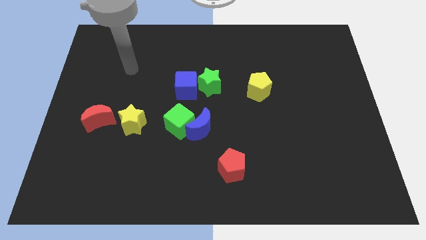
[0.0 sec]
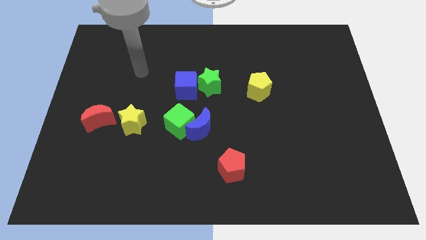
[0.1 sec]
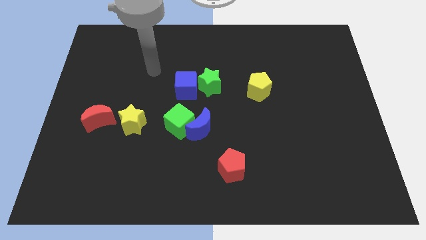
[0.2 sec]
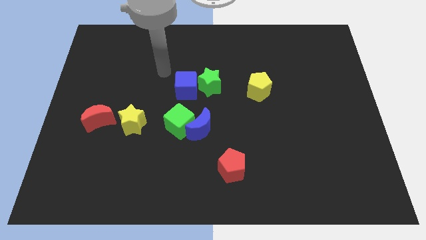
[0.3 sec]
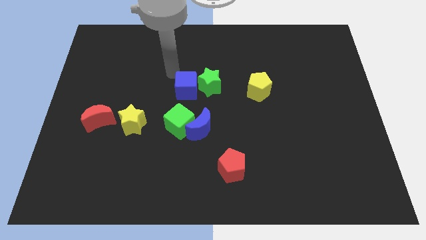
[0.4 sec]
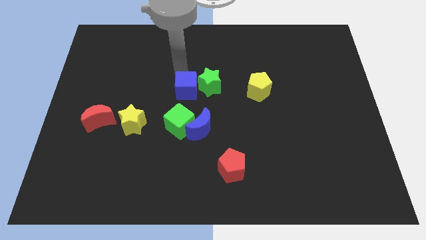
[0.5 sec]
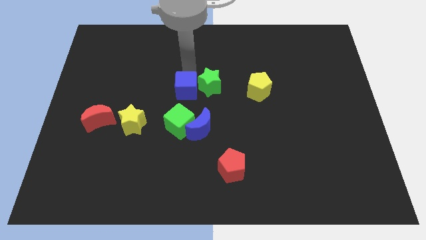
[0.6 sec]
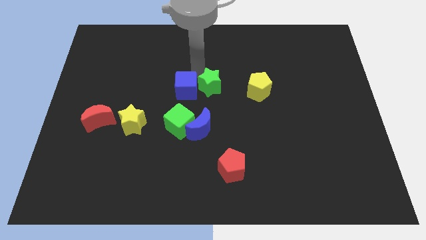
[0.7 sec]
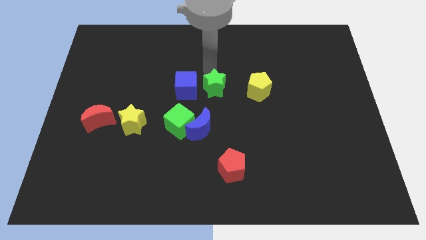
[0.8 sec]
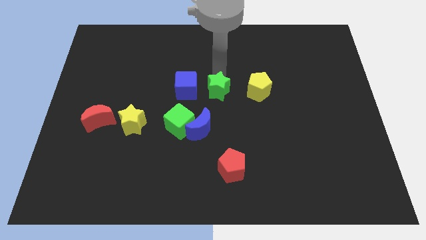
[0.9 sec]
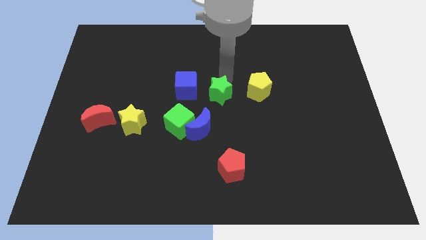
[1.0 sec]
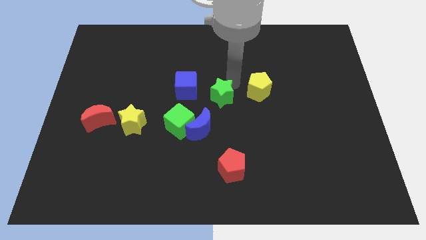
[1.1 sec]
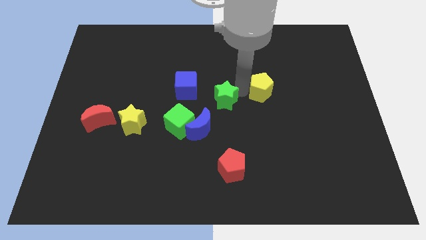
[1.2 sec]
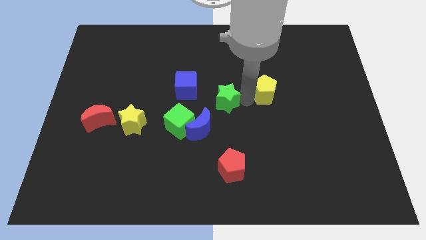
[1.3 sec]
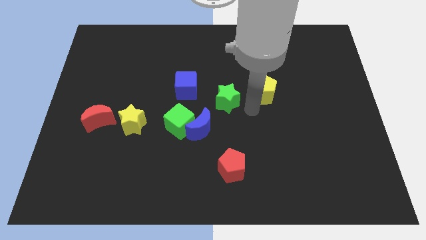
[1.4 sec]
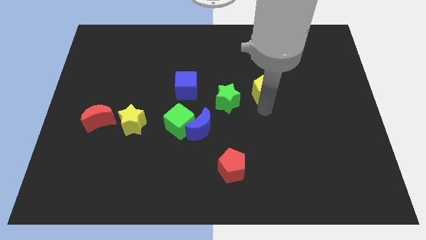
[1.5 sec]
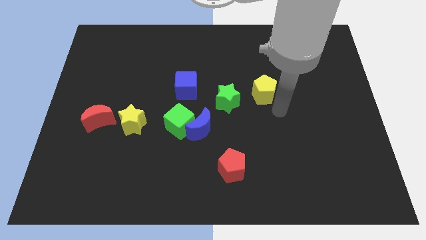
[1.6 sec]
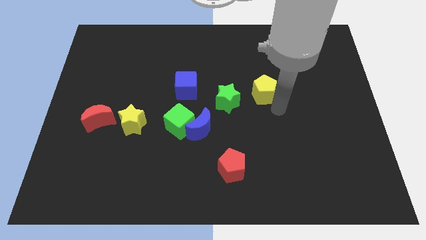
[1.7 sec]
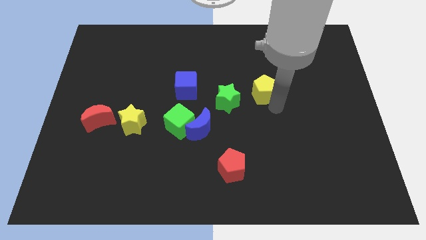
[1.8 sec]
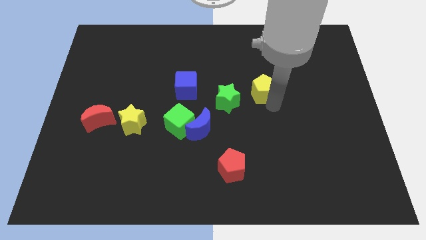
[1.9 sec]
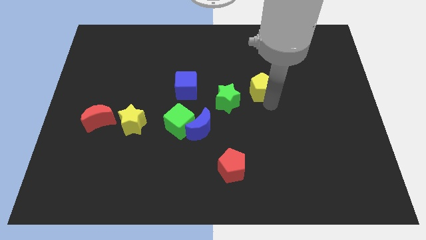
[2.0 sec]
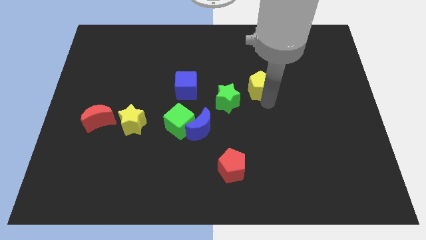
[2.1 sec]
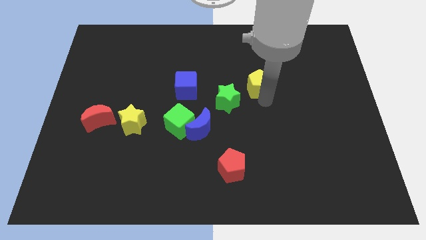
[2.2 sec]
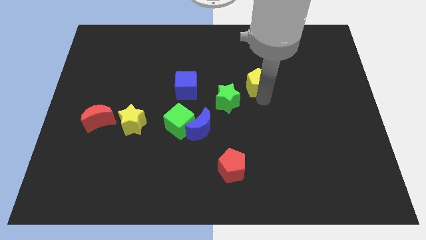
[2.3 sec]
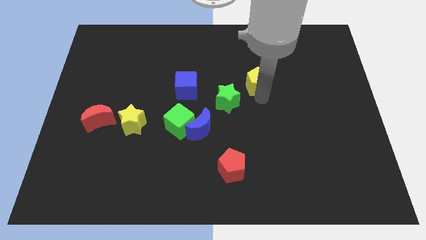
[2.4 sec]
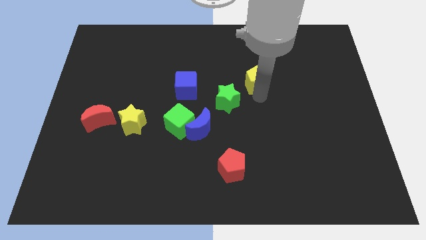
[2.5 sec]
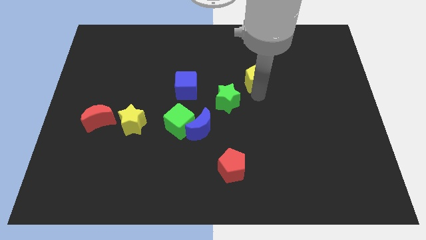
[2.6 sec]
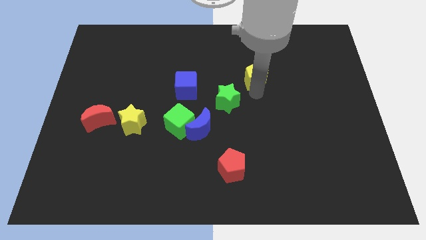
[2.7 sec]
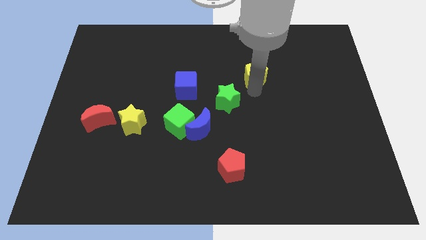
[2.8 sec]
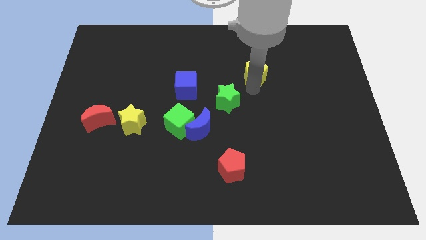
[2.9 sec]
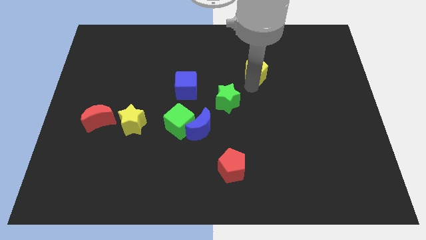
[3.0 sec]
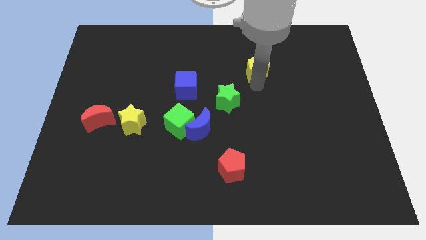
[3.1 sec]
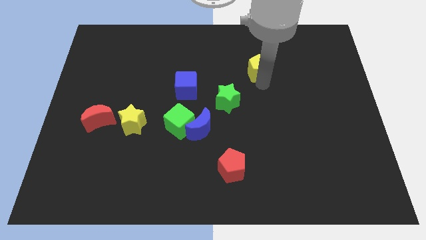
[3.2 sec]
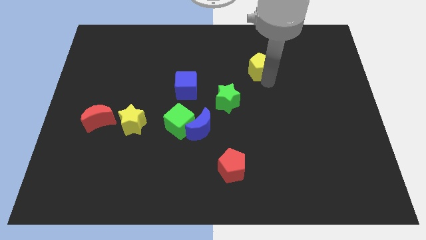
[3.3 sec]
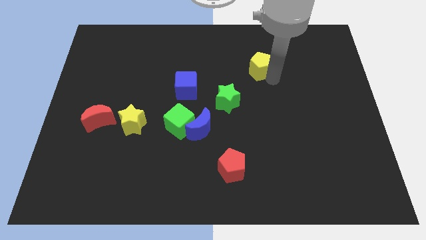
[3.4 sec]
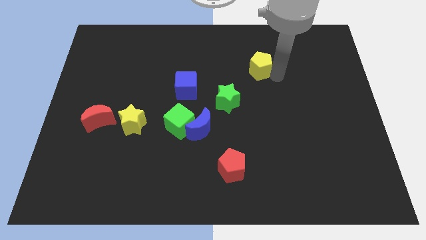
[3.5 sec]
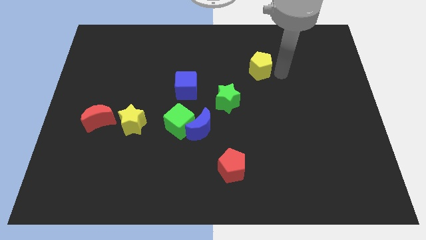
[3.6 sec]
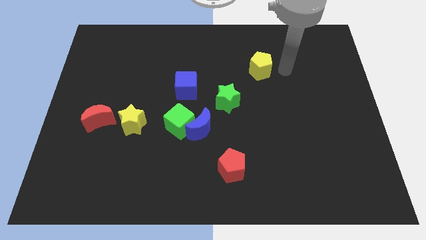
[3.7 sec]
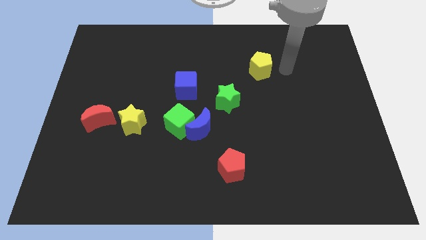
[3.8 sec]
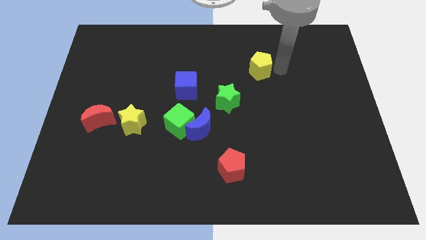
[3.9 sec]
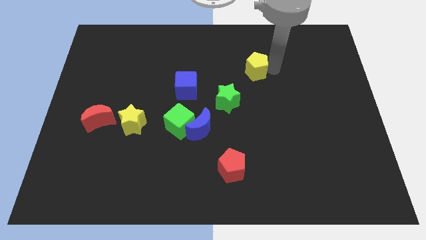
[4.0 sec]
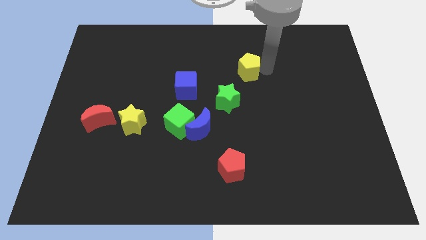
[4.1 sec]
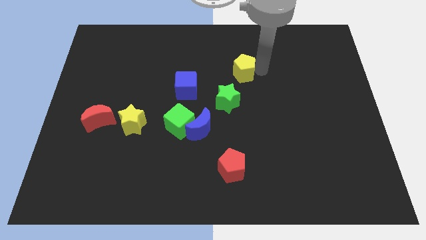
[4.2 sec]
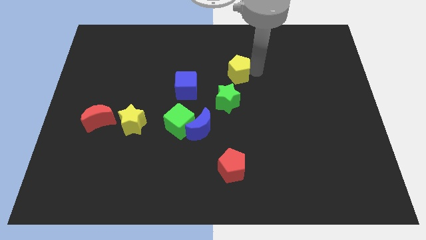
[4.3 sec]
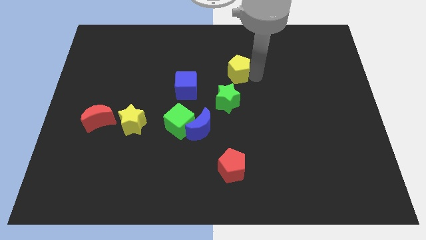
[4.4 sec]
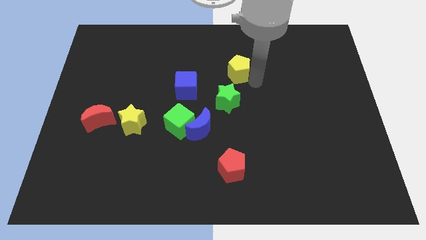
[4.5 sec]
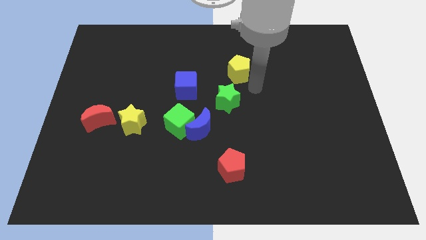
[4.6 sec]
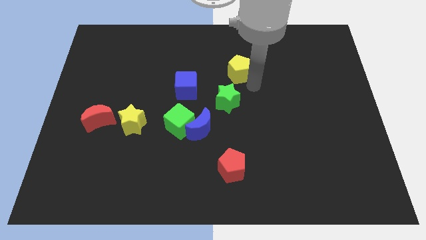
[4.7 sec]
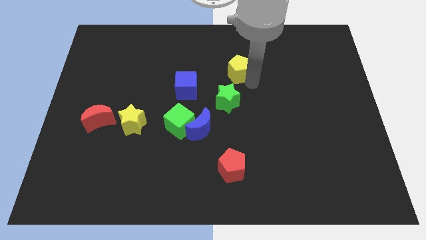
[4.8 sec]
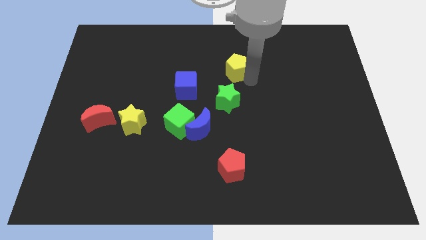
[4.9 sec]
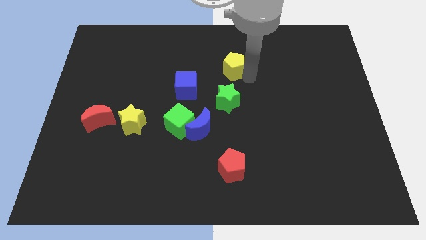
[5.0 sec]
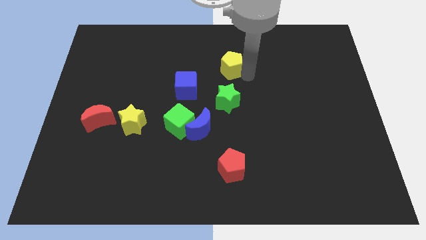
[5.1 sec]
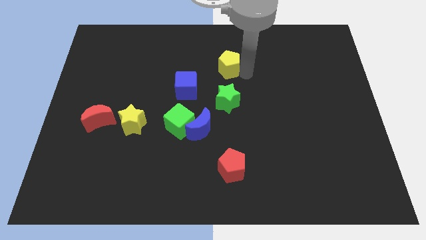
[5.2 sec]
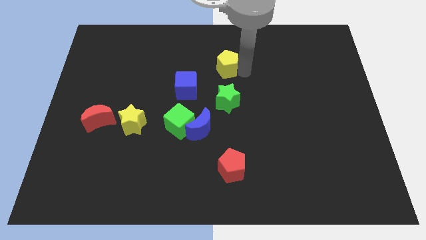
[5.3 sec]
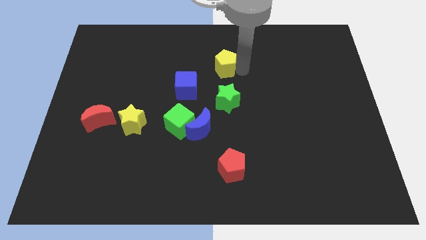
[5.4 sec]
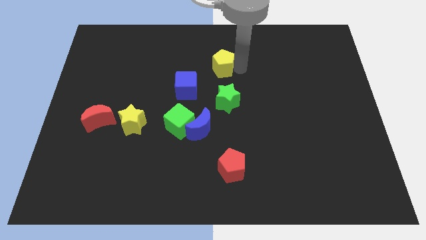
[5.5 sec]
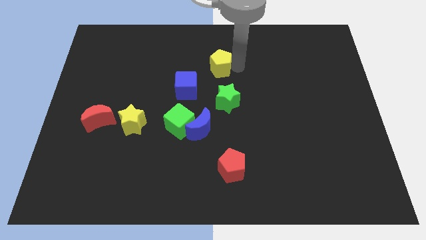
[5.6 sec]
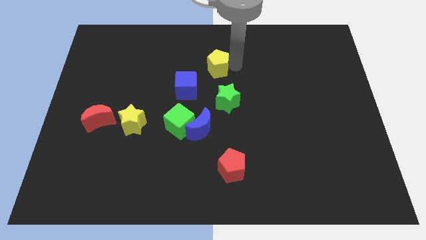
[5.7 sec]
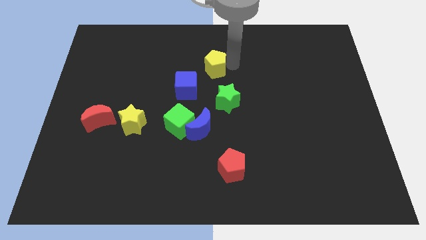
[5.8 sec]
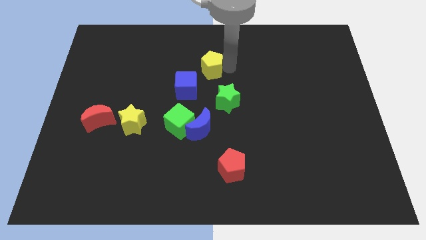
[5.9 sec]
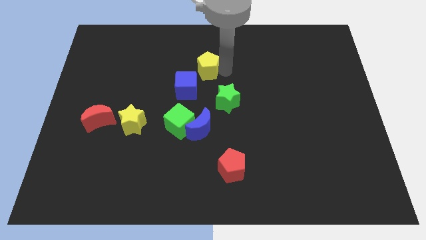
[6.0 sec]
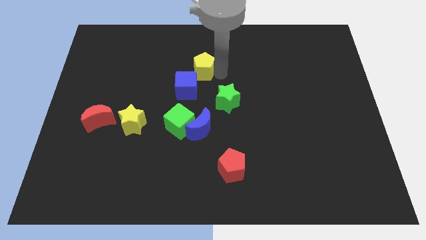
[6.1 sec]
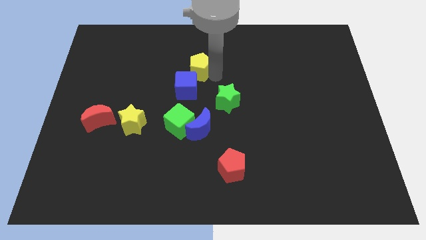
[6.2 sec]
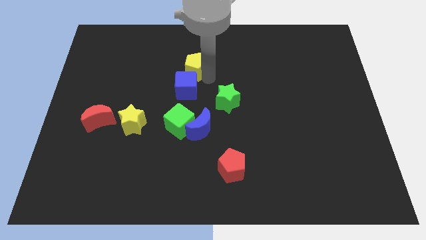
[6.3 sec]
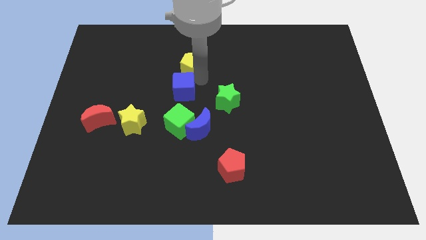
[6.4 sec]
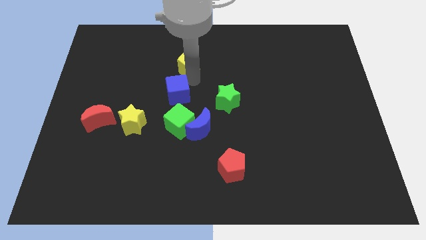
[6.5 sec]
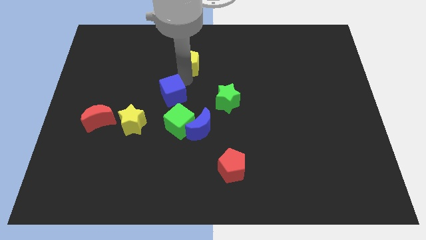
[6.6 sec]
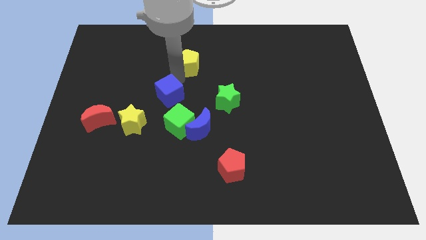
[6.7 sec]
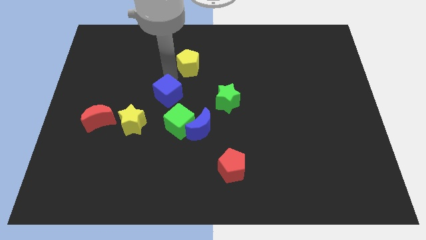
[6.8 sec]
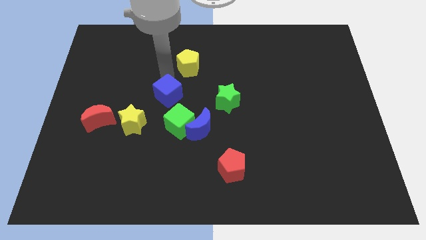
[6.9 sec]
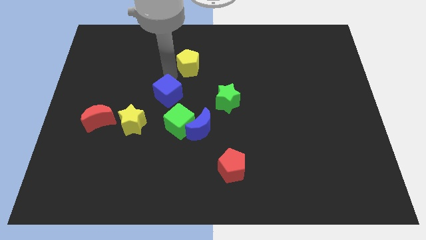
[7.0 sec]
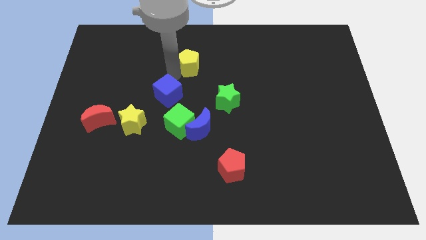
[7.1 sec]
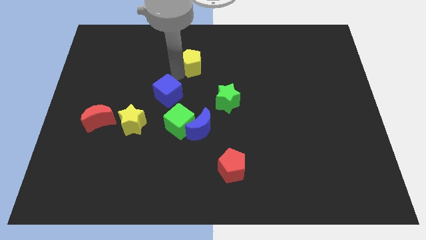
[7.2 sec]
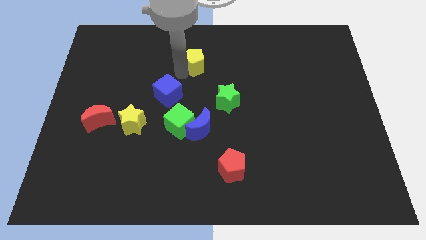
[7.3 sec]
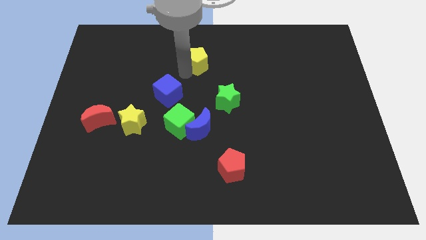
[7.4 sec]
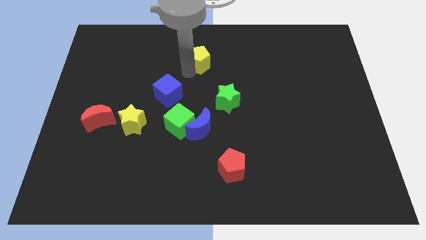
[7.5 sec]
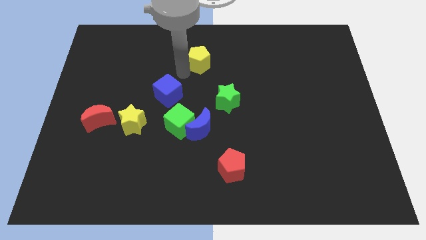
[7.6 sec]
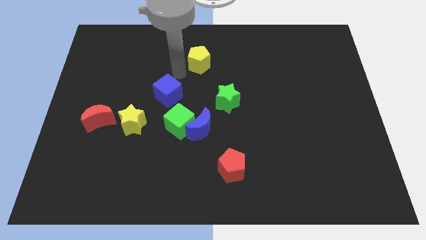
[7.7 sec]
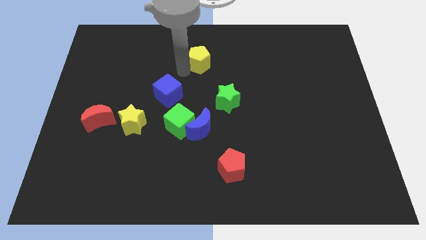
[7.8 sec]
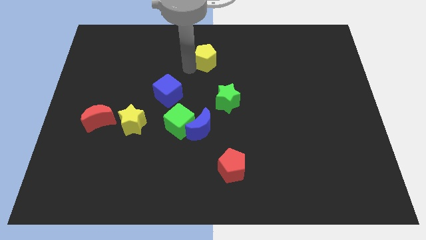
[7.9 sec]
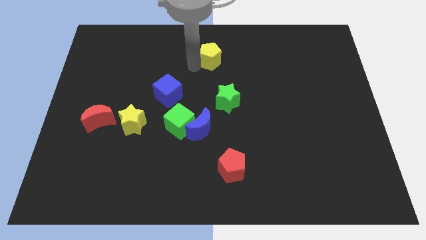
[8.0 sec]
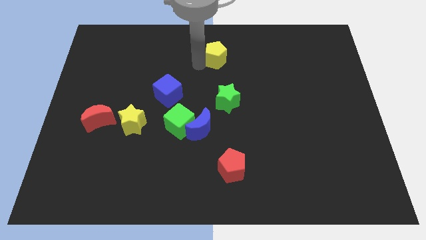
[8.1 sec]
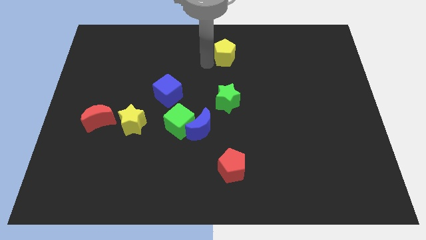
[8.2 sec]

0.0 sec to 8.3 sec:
move the yellow pentagon to the top
